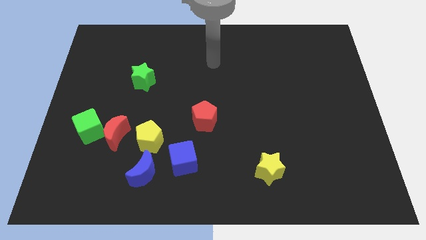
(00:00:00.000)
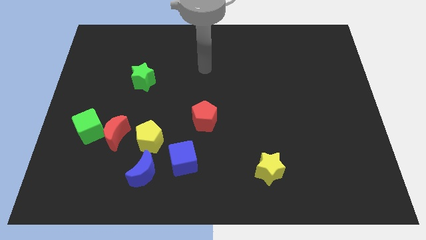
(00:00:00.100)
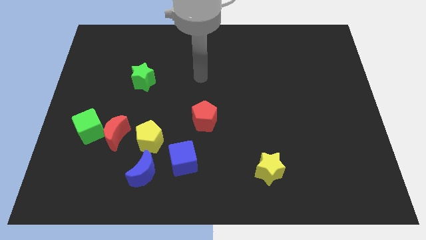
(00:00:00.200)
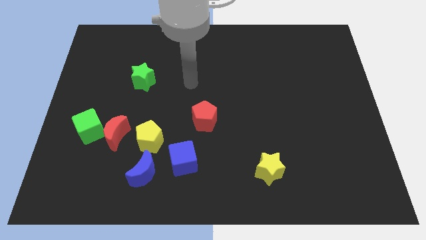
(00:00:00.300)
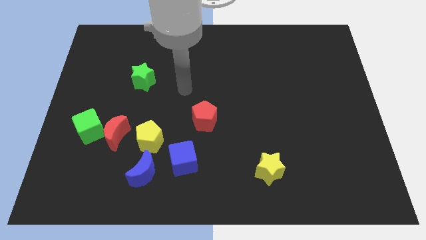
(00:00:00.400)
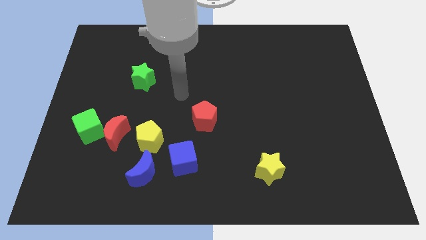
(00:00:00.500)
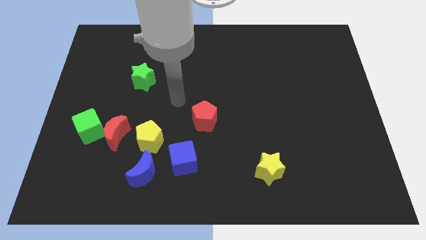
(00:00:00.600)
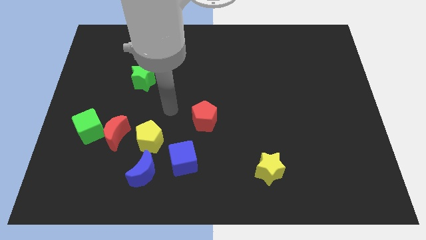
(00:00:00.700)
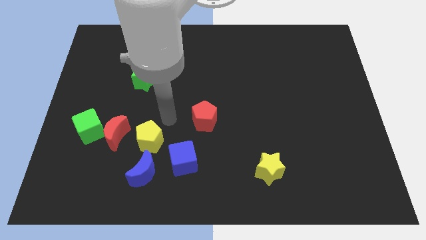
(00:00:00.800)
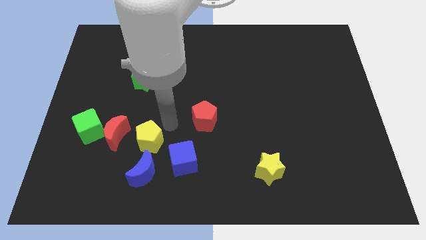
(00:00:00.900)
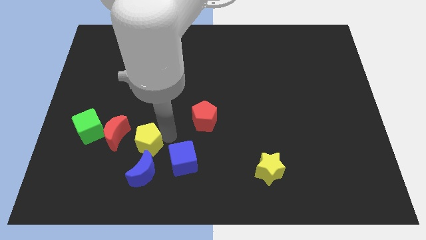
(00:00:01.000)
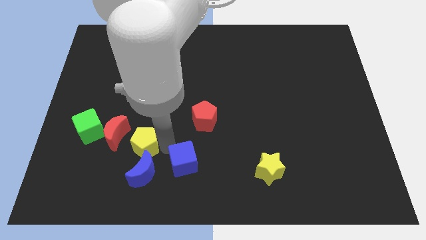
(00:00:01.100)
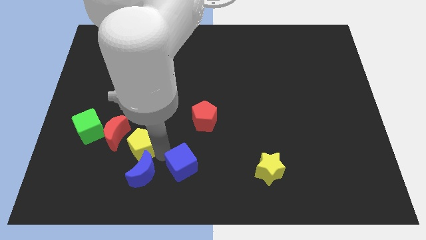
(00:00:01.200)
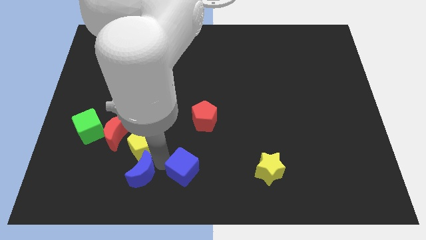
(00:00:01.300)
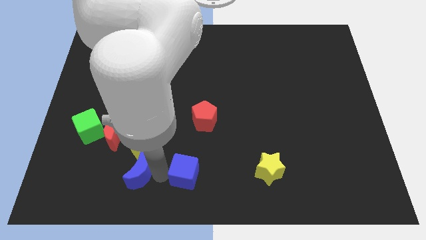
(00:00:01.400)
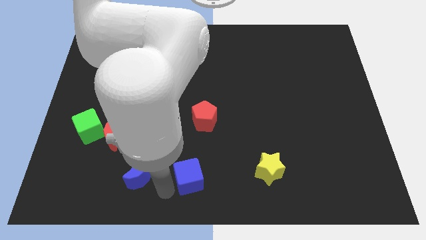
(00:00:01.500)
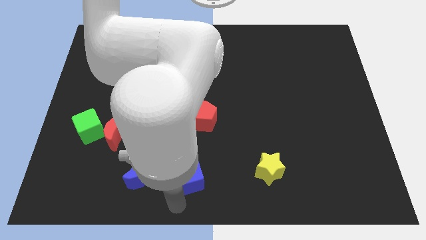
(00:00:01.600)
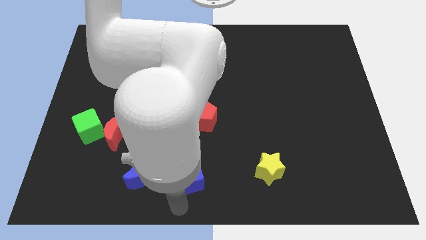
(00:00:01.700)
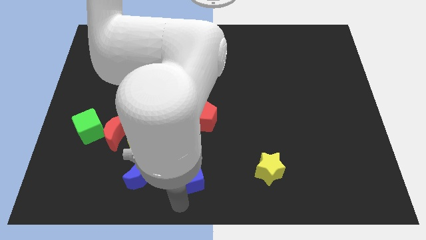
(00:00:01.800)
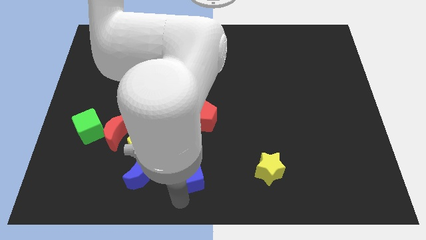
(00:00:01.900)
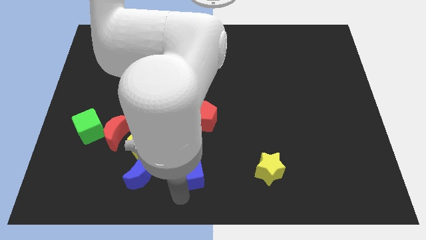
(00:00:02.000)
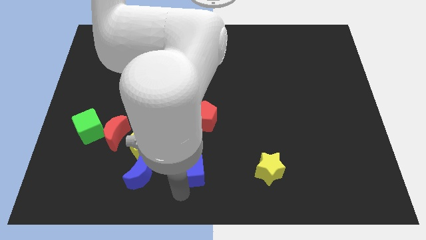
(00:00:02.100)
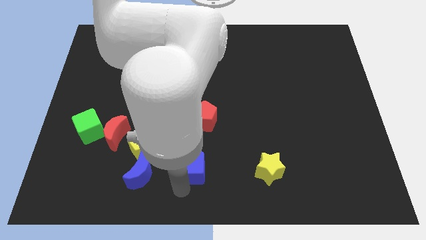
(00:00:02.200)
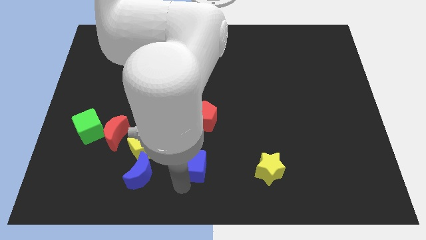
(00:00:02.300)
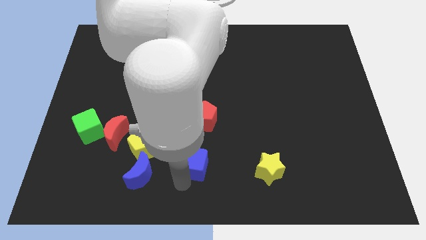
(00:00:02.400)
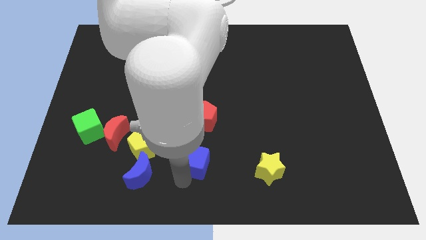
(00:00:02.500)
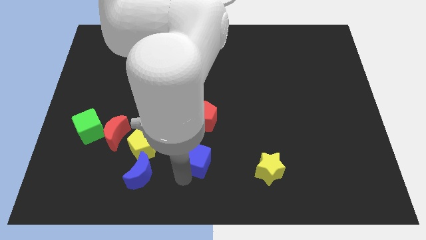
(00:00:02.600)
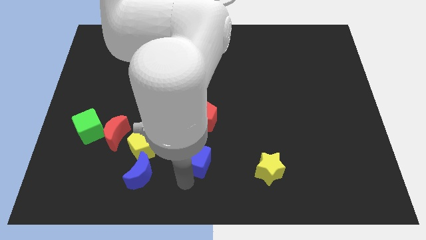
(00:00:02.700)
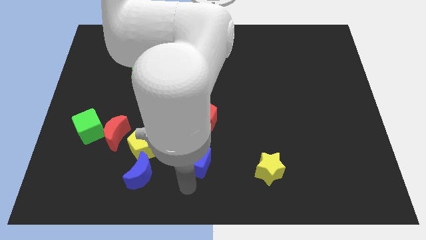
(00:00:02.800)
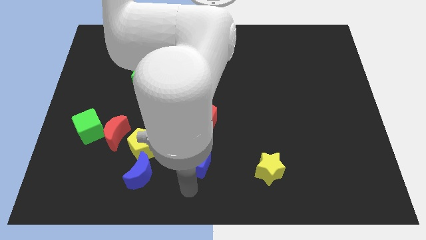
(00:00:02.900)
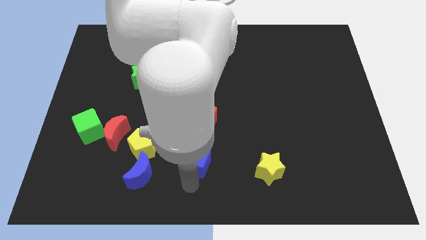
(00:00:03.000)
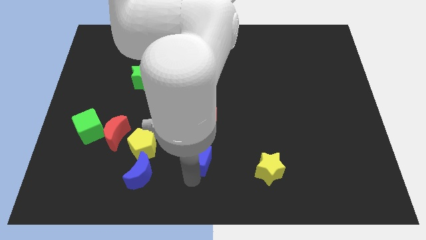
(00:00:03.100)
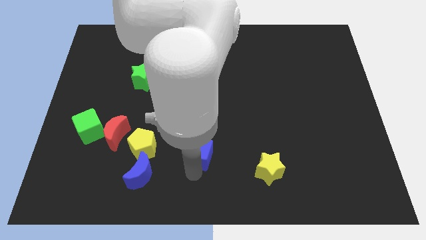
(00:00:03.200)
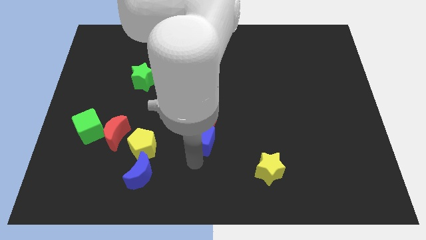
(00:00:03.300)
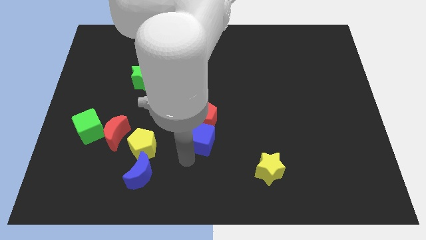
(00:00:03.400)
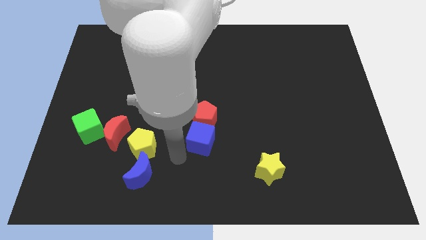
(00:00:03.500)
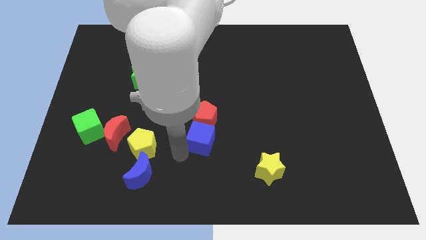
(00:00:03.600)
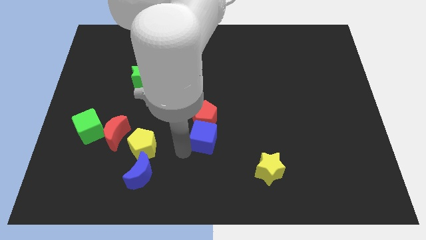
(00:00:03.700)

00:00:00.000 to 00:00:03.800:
slide the blue cube a bit up and then right

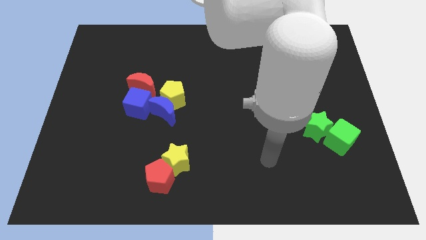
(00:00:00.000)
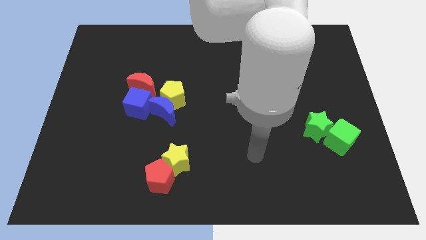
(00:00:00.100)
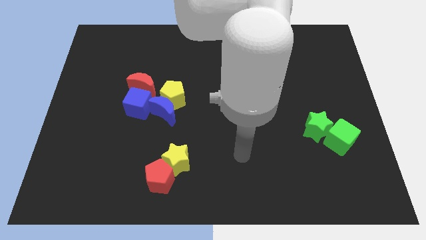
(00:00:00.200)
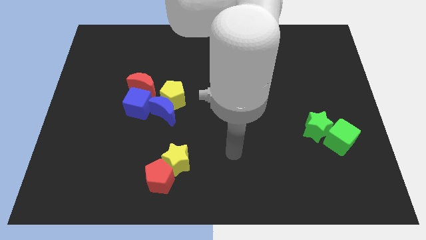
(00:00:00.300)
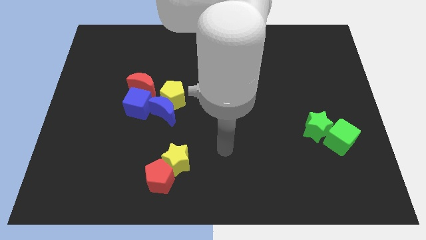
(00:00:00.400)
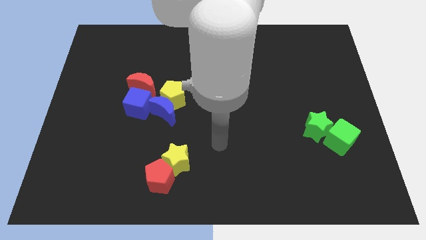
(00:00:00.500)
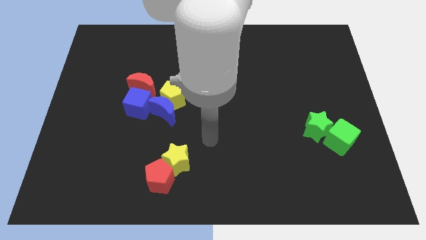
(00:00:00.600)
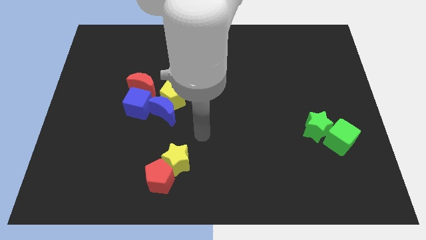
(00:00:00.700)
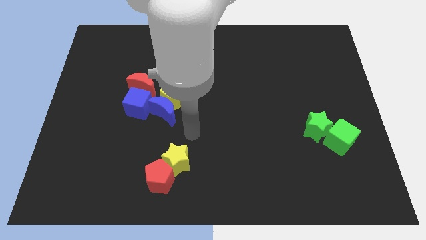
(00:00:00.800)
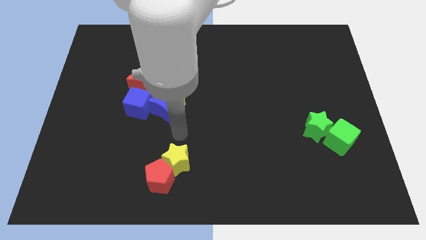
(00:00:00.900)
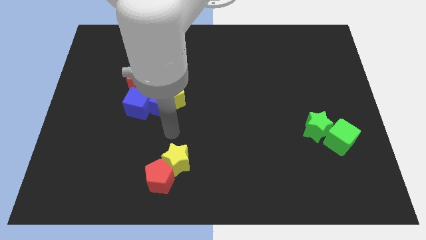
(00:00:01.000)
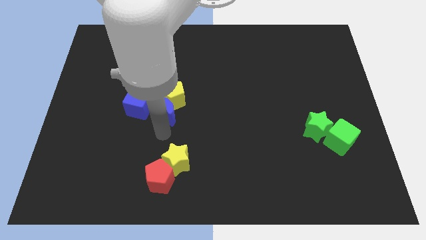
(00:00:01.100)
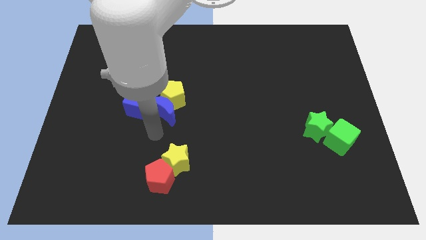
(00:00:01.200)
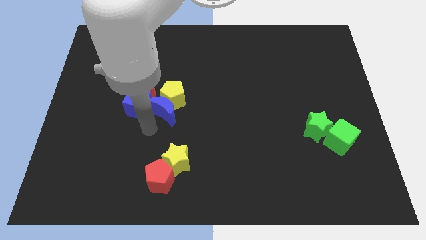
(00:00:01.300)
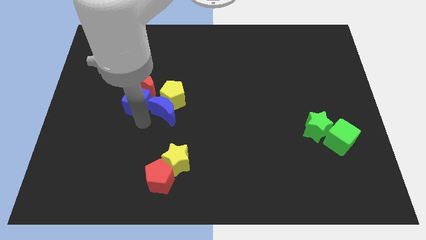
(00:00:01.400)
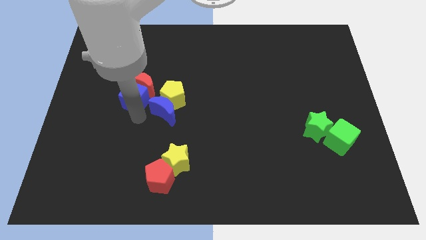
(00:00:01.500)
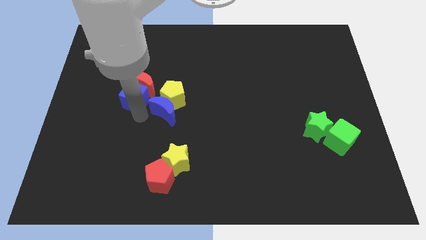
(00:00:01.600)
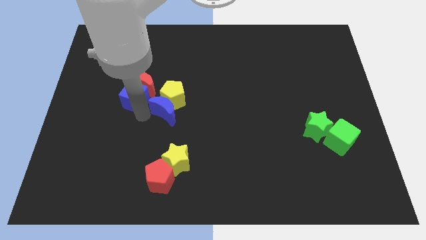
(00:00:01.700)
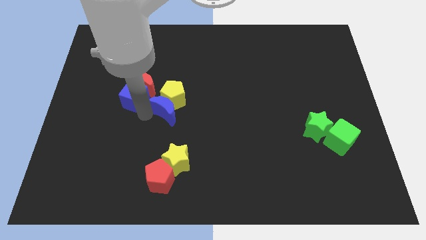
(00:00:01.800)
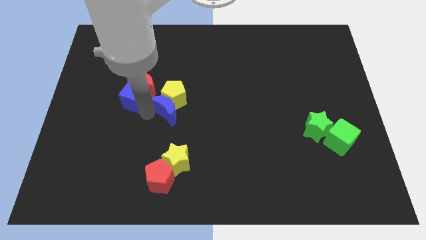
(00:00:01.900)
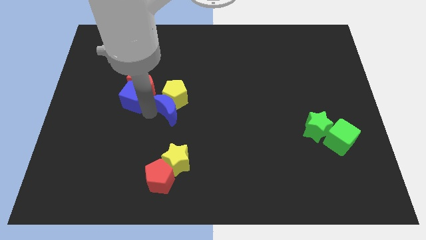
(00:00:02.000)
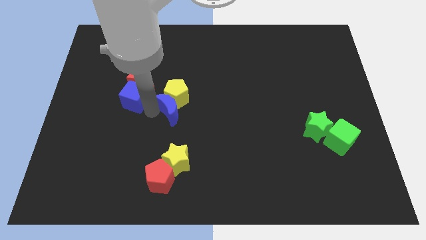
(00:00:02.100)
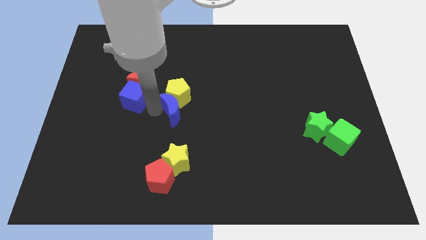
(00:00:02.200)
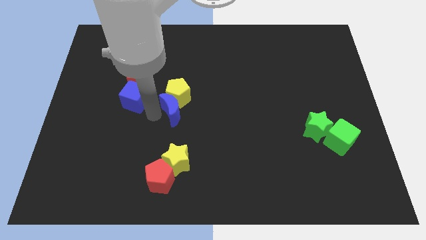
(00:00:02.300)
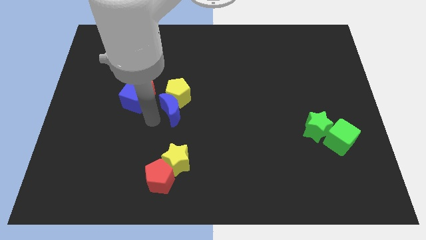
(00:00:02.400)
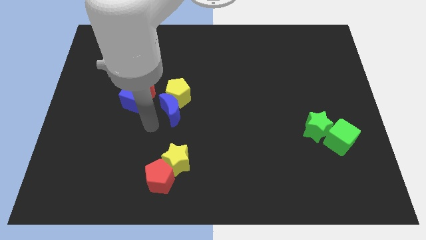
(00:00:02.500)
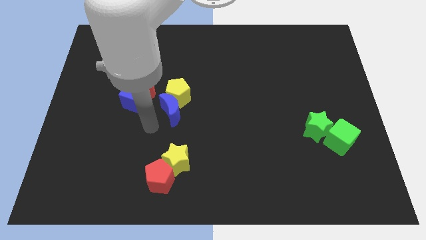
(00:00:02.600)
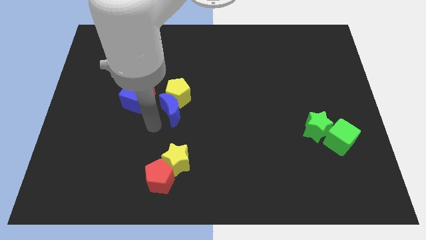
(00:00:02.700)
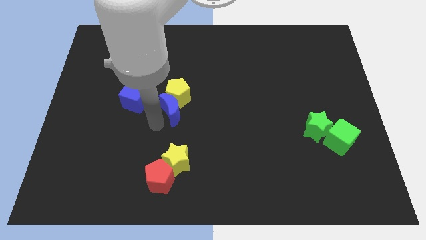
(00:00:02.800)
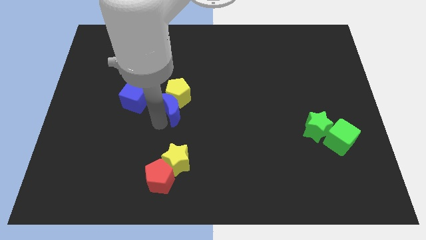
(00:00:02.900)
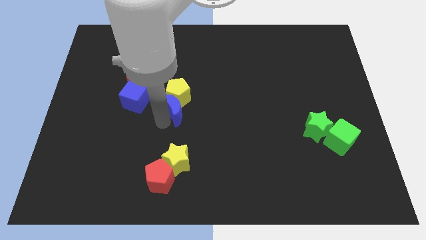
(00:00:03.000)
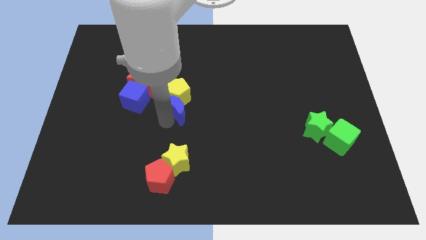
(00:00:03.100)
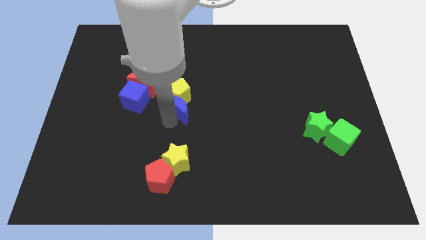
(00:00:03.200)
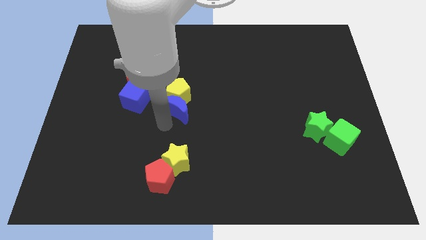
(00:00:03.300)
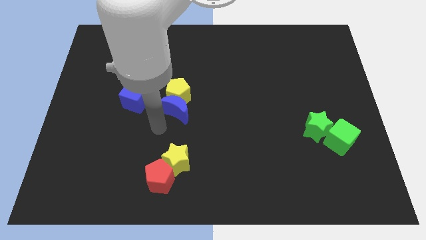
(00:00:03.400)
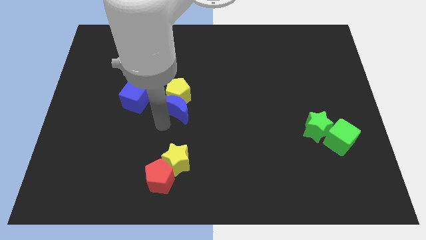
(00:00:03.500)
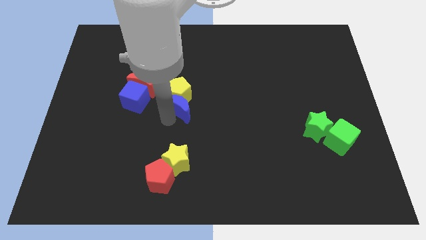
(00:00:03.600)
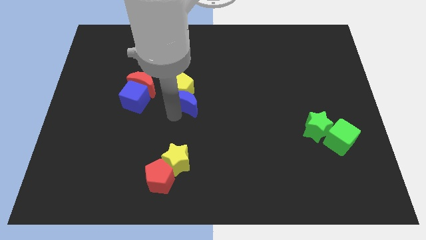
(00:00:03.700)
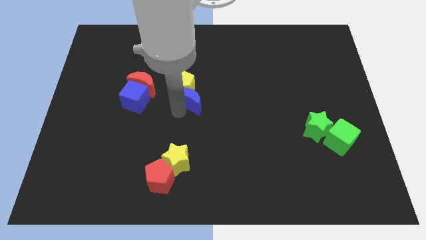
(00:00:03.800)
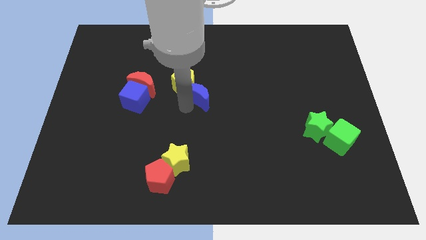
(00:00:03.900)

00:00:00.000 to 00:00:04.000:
push the blue moon a little bit upwards and to the right diagonally
